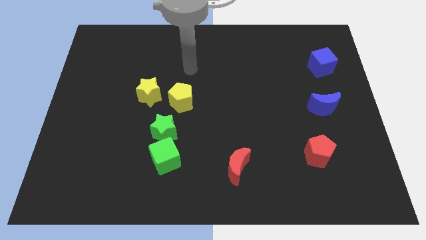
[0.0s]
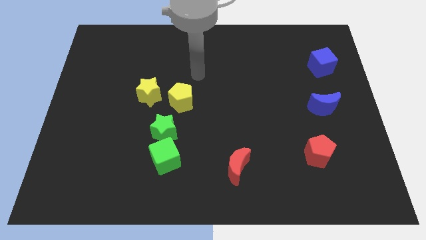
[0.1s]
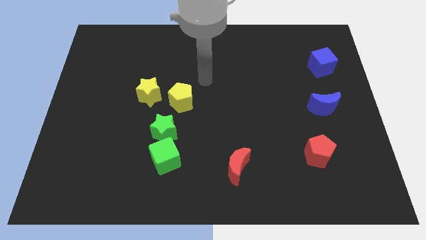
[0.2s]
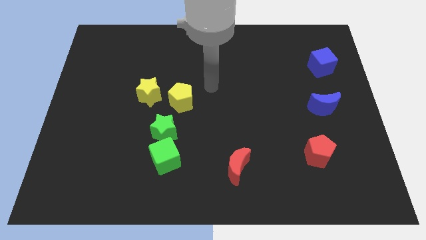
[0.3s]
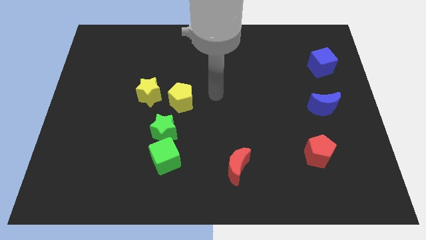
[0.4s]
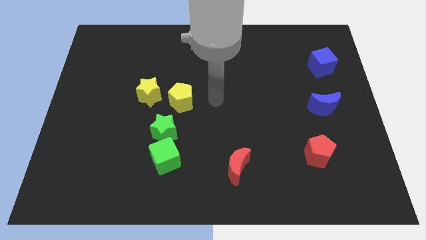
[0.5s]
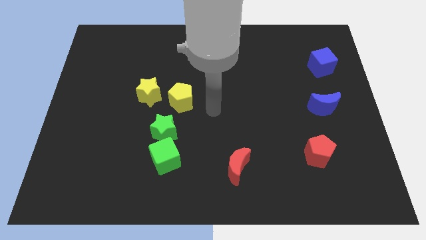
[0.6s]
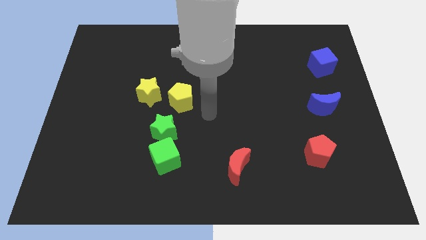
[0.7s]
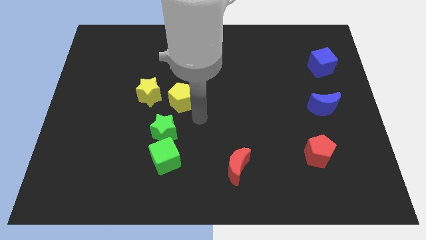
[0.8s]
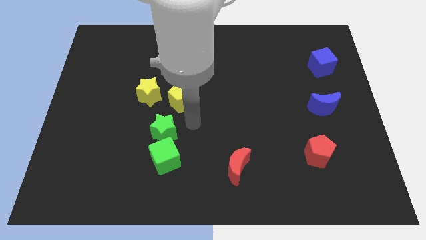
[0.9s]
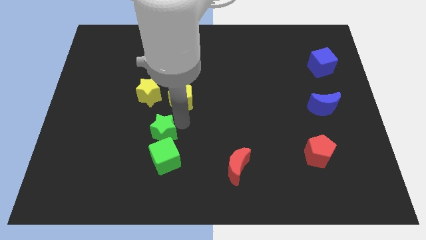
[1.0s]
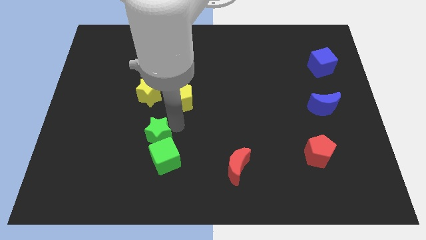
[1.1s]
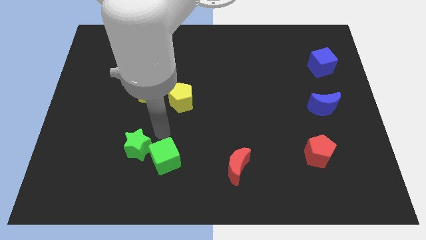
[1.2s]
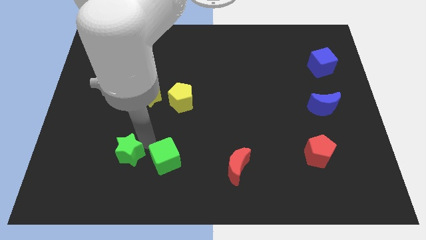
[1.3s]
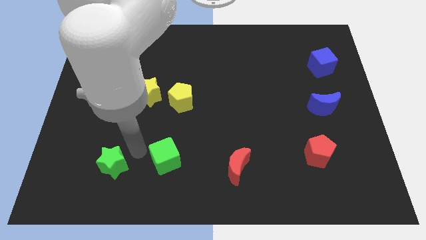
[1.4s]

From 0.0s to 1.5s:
pull the green cube apart from the green star

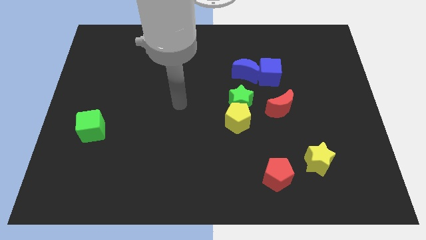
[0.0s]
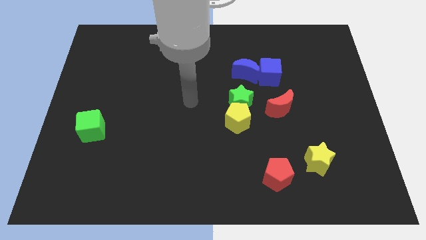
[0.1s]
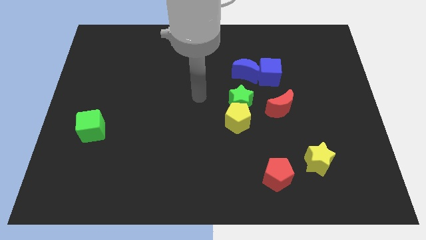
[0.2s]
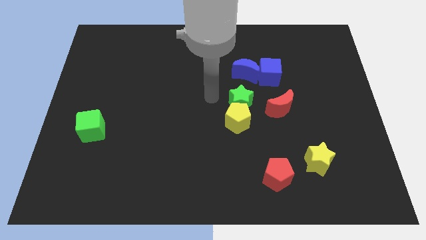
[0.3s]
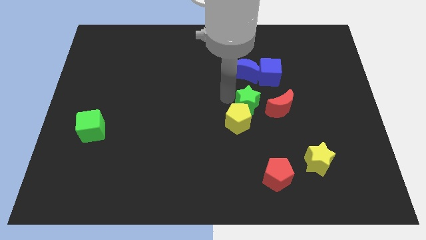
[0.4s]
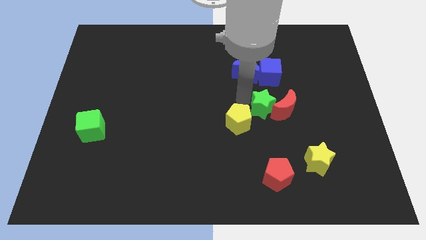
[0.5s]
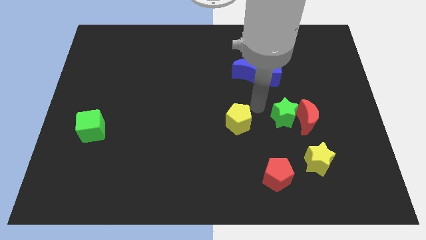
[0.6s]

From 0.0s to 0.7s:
pull the yellow pentagon apart from the green star

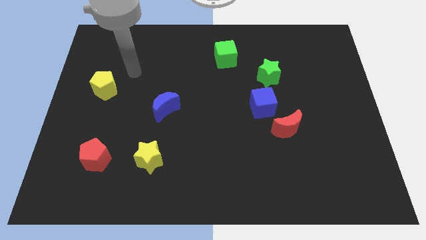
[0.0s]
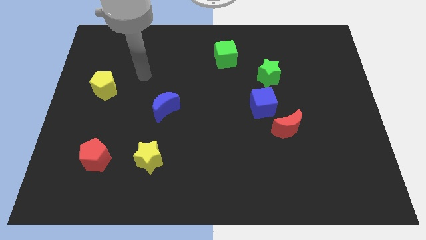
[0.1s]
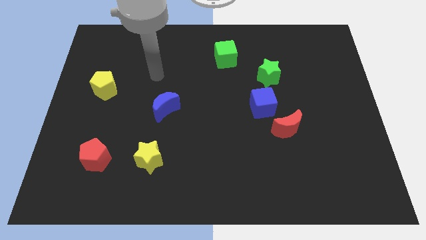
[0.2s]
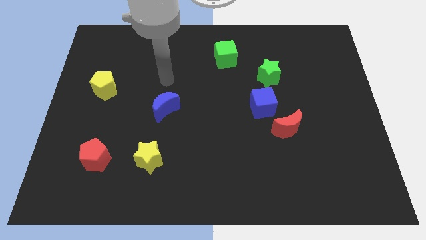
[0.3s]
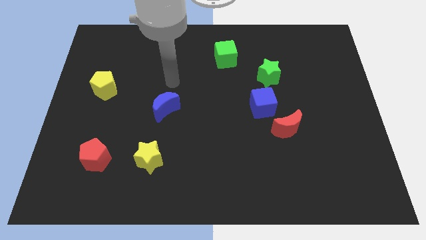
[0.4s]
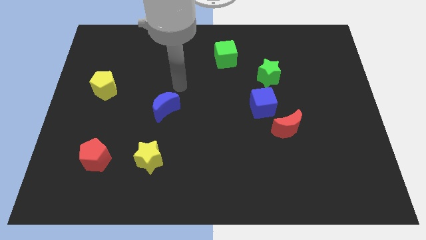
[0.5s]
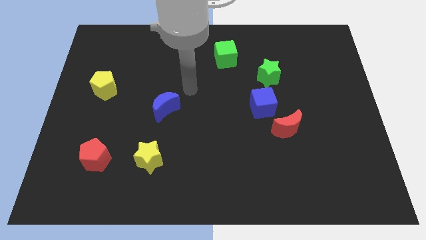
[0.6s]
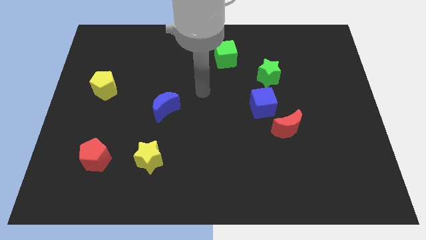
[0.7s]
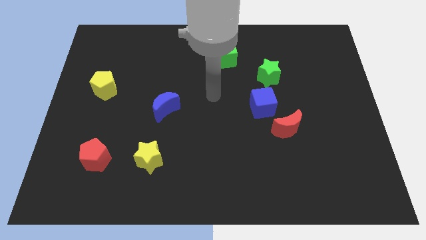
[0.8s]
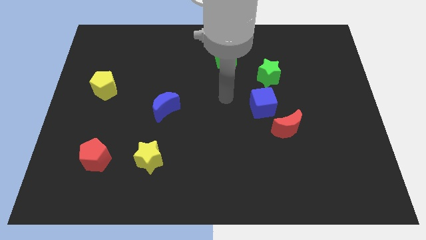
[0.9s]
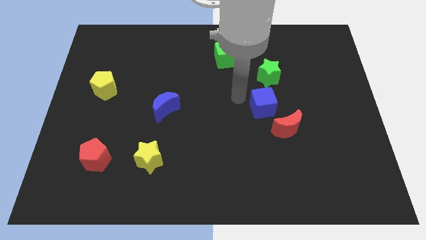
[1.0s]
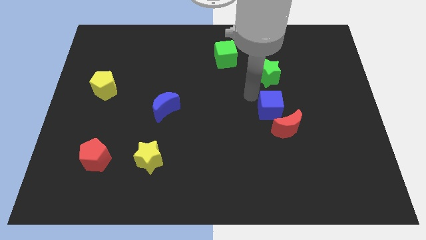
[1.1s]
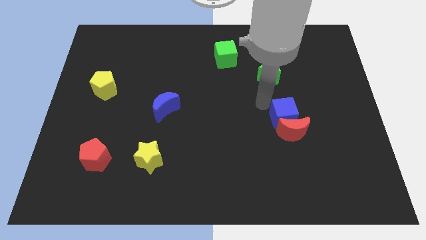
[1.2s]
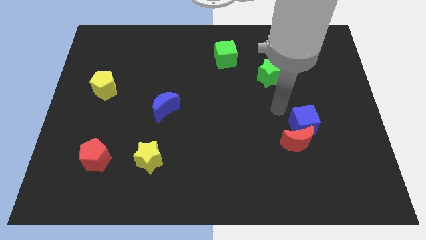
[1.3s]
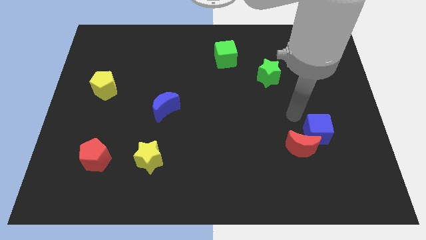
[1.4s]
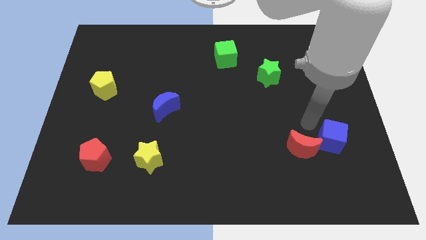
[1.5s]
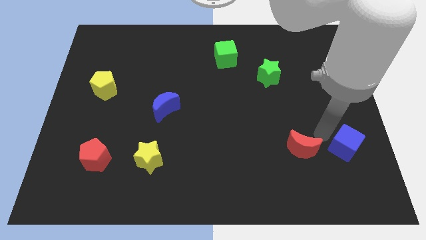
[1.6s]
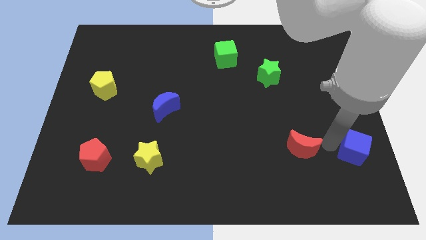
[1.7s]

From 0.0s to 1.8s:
pull the red moon apart from the blue cube

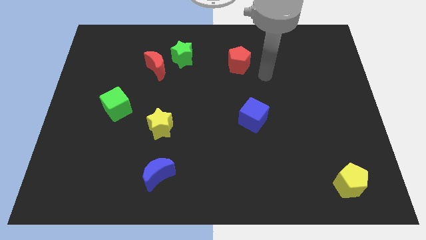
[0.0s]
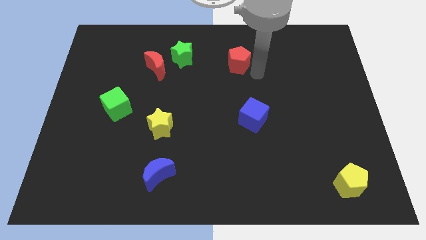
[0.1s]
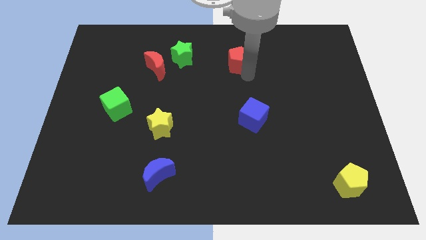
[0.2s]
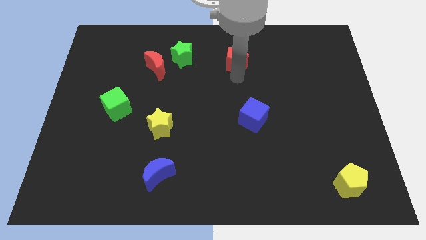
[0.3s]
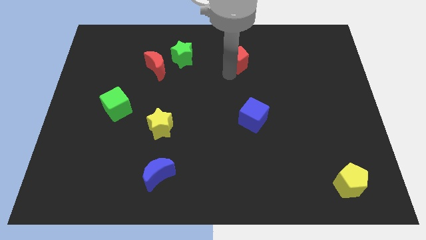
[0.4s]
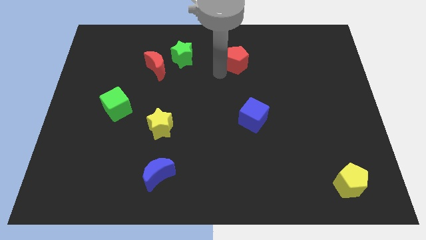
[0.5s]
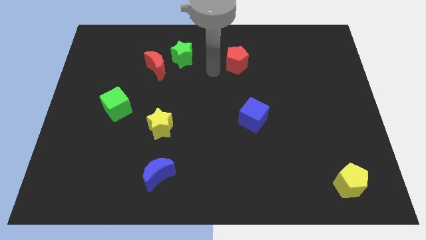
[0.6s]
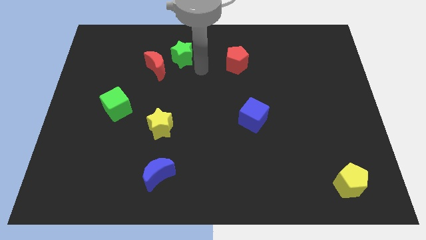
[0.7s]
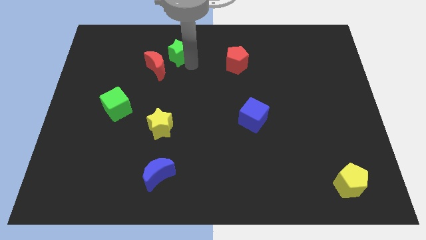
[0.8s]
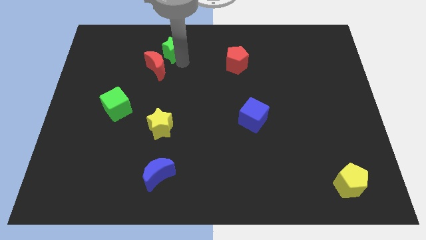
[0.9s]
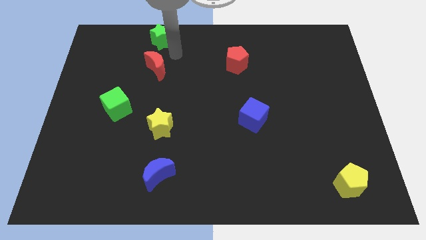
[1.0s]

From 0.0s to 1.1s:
move the red moon away from the green star

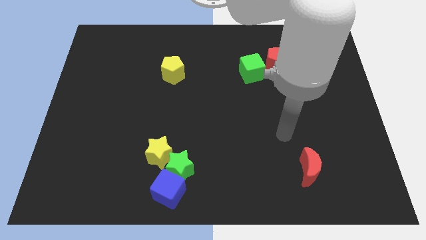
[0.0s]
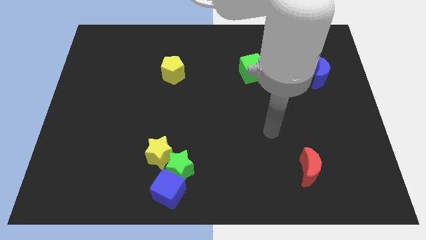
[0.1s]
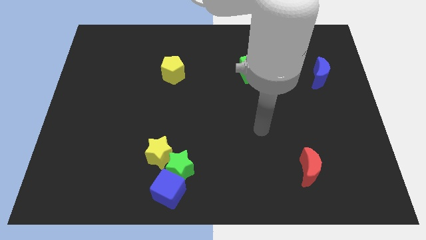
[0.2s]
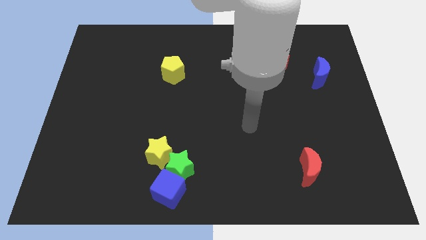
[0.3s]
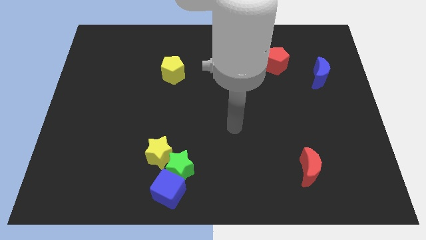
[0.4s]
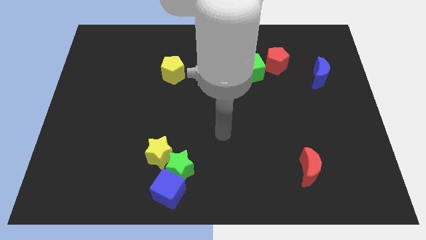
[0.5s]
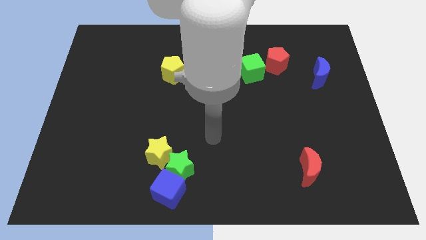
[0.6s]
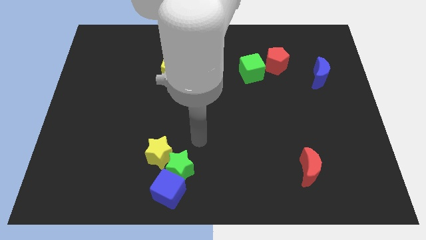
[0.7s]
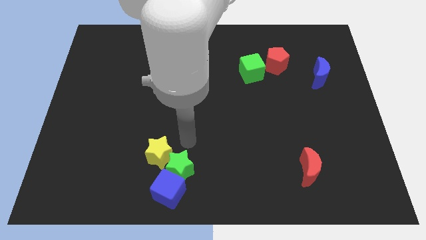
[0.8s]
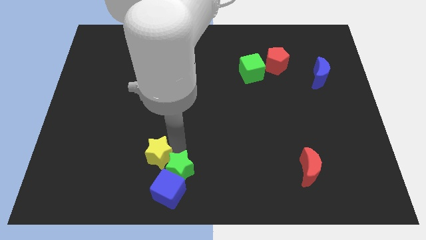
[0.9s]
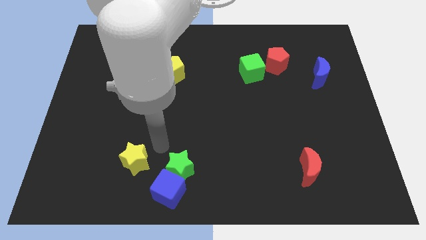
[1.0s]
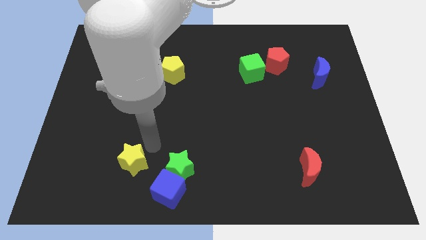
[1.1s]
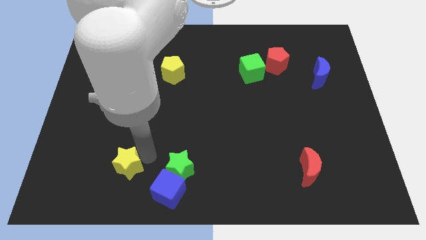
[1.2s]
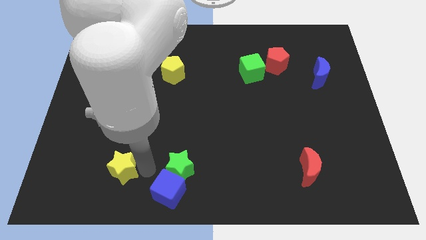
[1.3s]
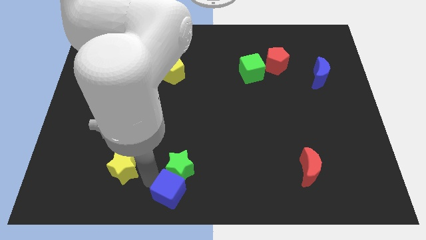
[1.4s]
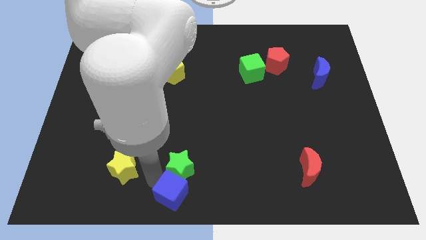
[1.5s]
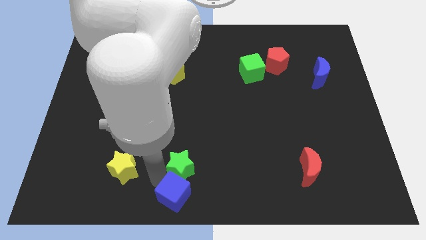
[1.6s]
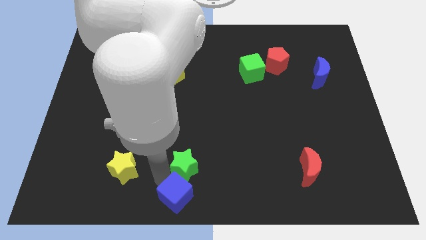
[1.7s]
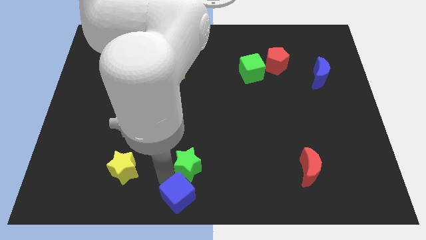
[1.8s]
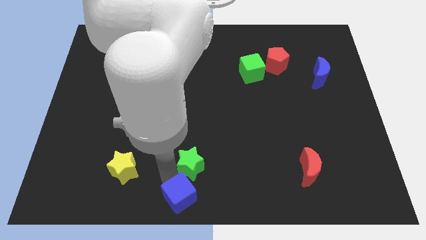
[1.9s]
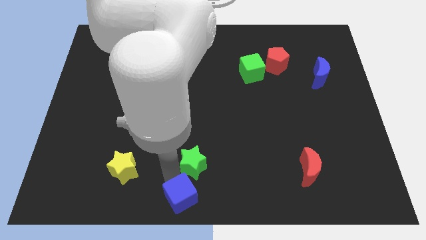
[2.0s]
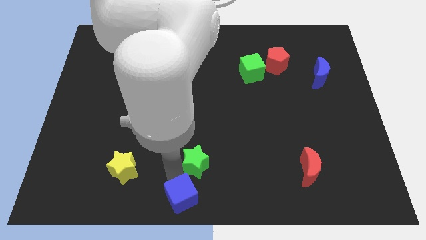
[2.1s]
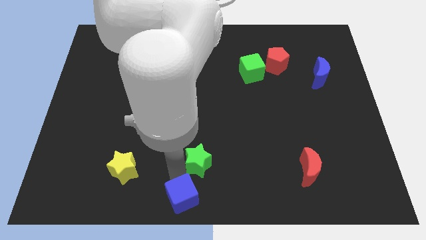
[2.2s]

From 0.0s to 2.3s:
pull the green star apart from the blue cube and yellow star

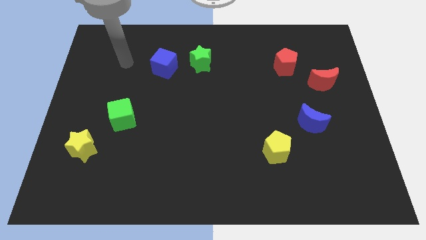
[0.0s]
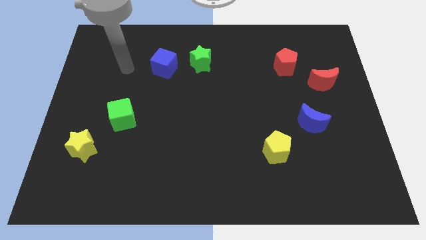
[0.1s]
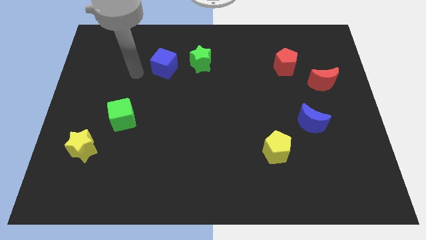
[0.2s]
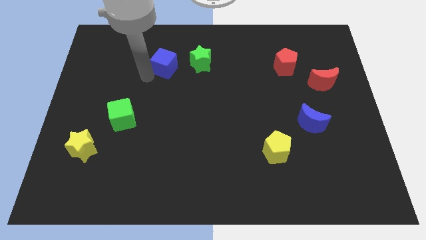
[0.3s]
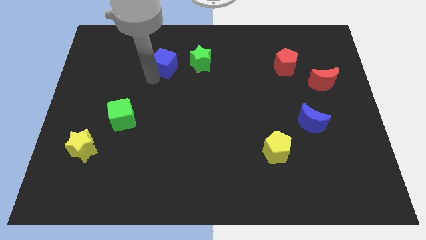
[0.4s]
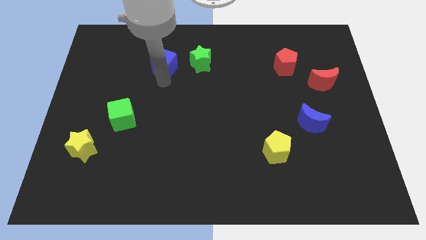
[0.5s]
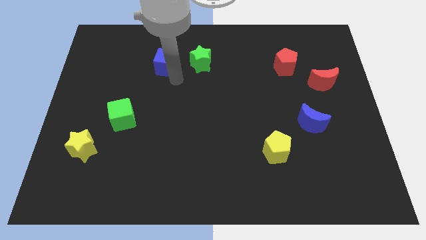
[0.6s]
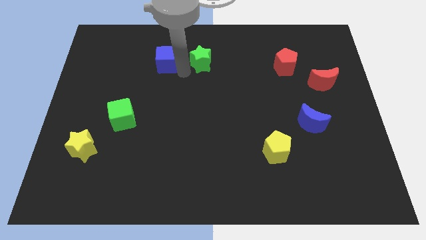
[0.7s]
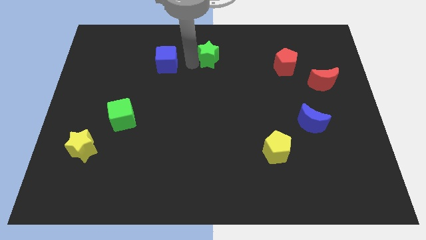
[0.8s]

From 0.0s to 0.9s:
separate the blue cube from the green star

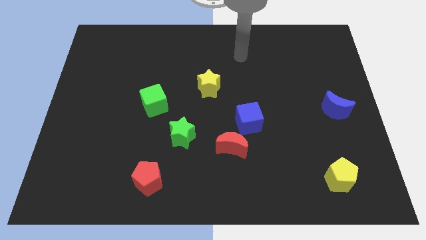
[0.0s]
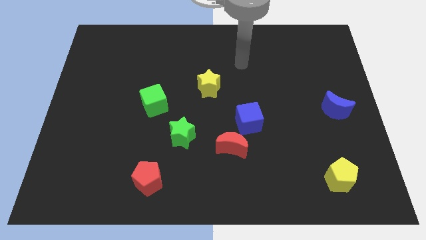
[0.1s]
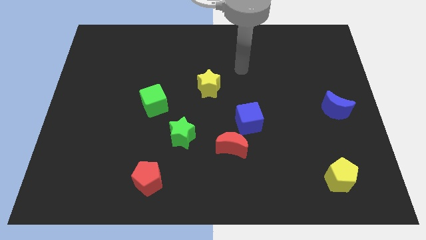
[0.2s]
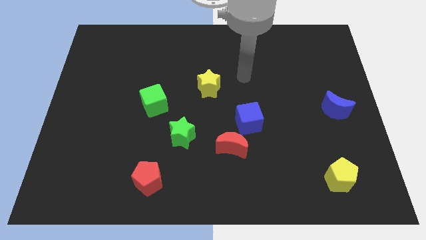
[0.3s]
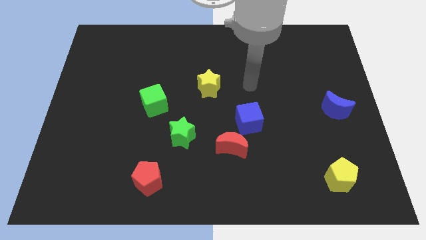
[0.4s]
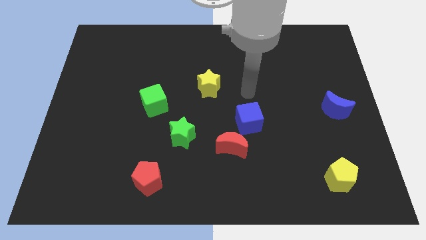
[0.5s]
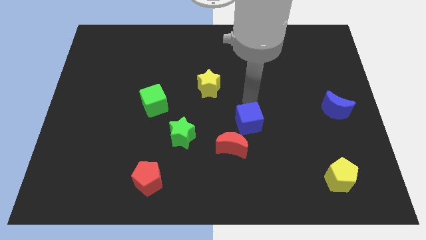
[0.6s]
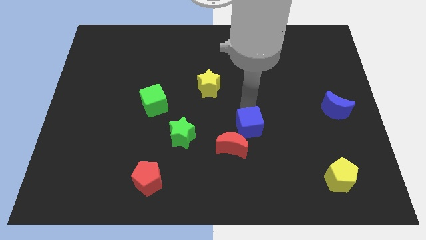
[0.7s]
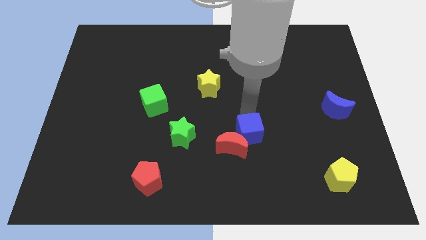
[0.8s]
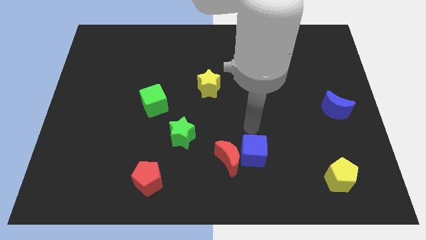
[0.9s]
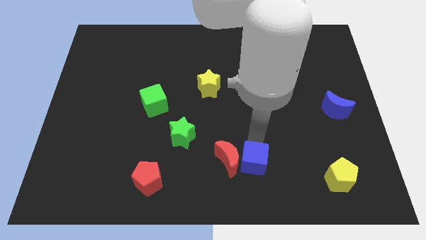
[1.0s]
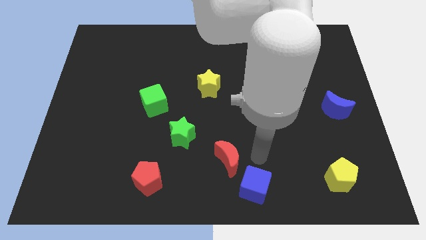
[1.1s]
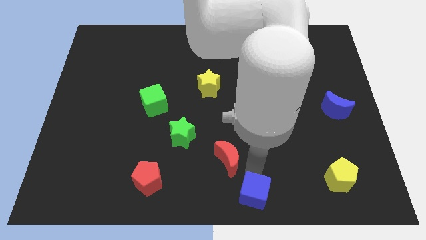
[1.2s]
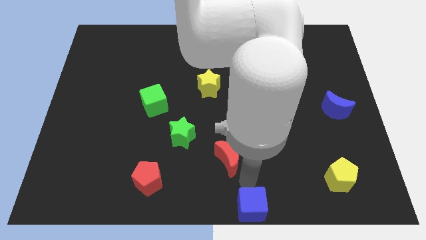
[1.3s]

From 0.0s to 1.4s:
move the red moon away from the blue cube
